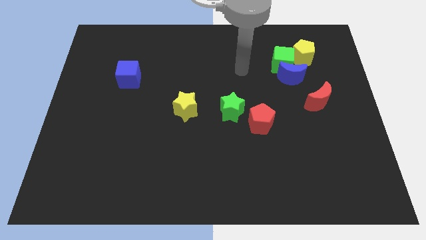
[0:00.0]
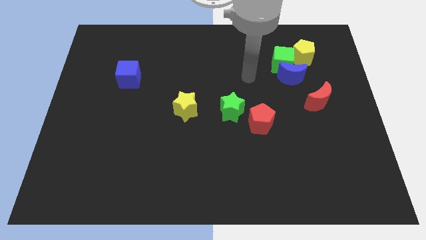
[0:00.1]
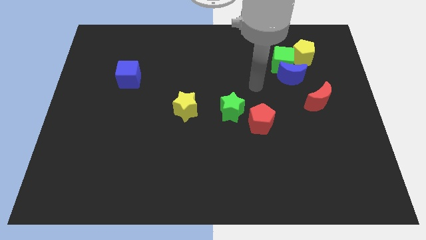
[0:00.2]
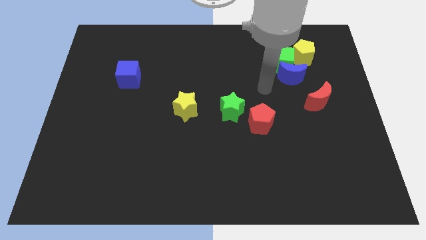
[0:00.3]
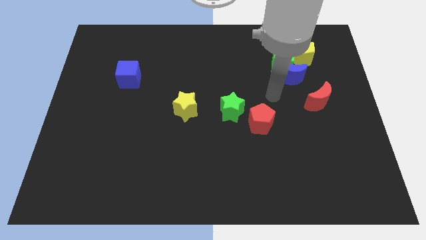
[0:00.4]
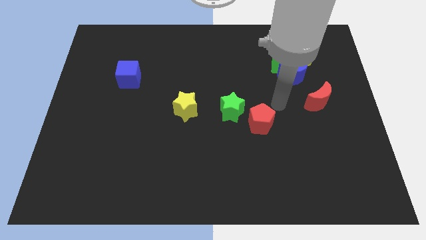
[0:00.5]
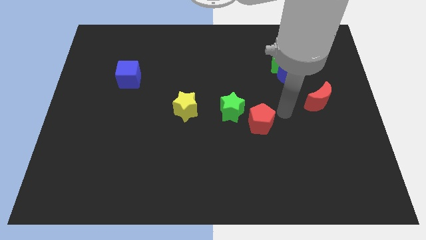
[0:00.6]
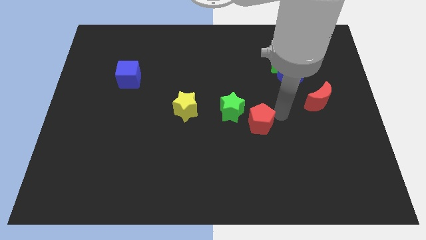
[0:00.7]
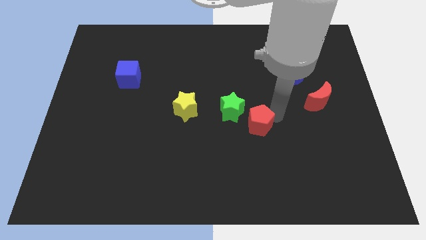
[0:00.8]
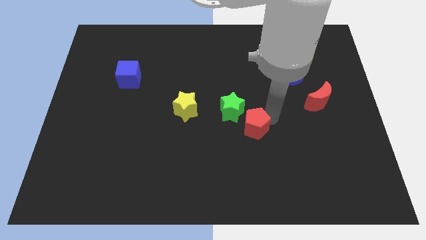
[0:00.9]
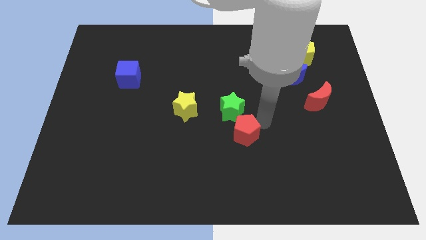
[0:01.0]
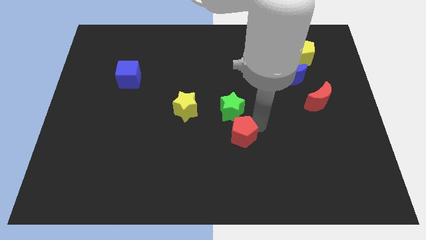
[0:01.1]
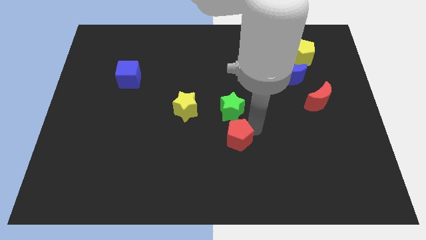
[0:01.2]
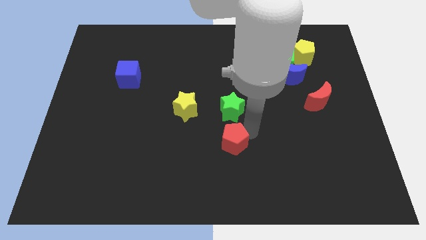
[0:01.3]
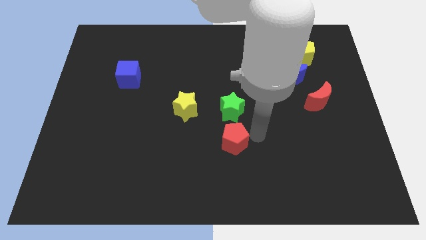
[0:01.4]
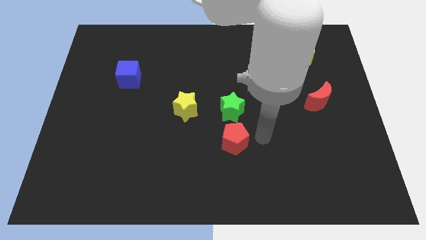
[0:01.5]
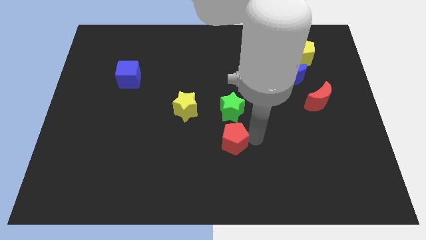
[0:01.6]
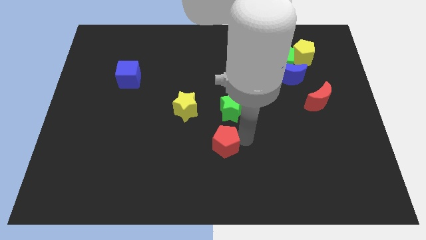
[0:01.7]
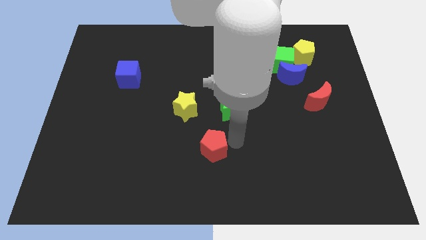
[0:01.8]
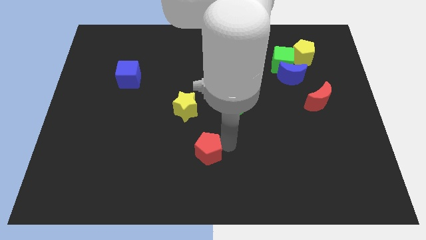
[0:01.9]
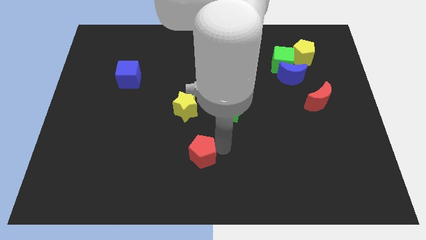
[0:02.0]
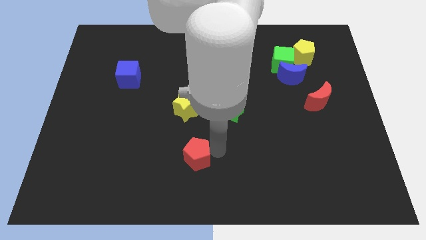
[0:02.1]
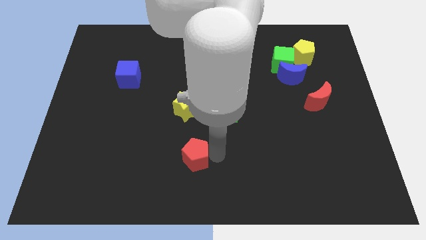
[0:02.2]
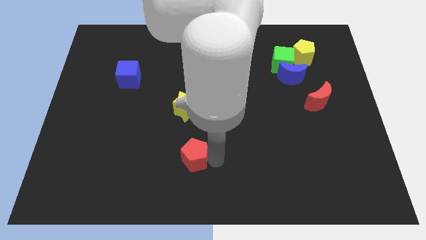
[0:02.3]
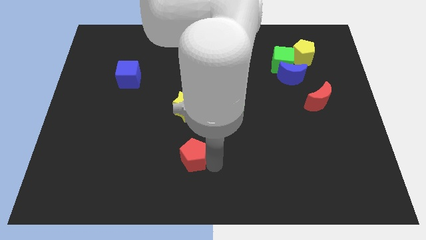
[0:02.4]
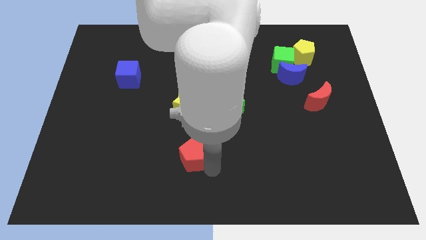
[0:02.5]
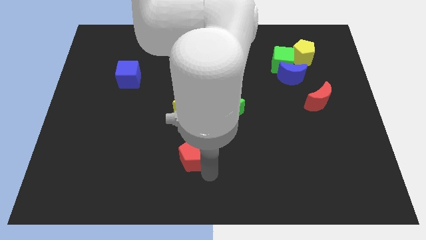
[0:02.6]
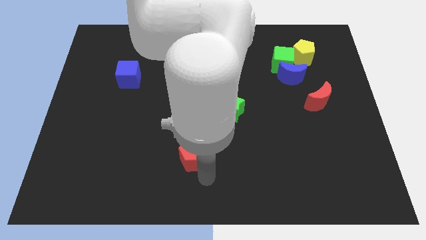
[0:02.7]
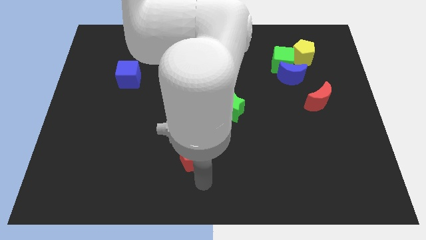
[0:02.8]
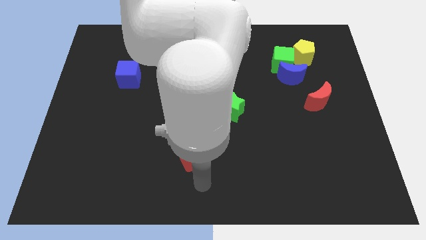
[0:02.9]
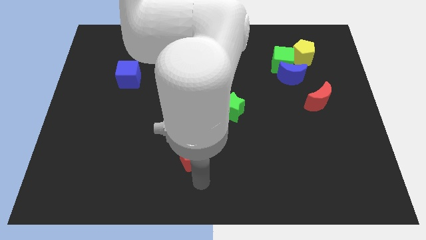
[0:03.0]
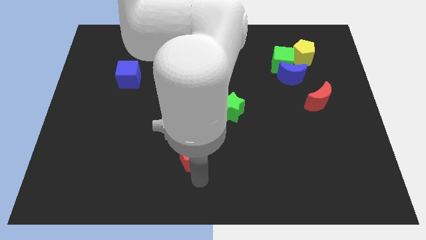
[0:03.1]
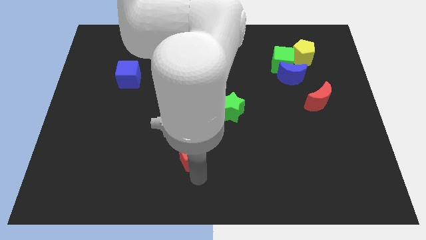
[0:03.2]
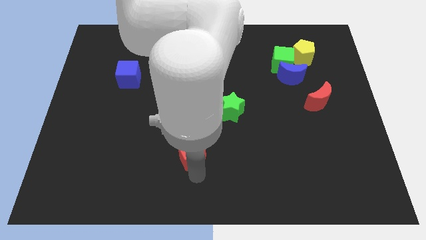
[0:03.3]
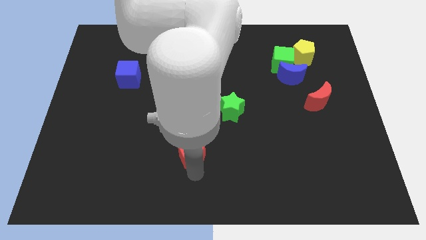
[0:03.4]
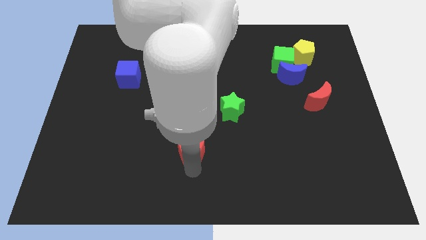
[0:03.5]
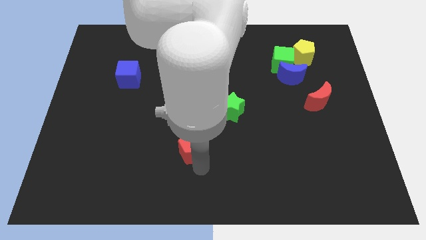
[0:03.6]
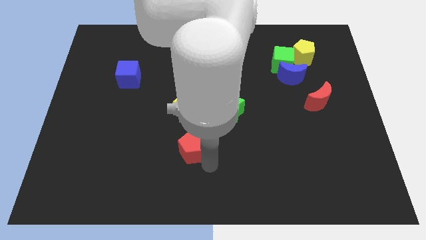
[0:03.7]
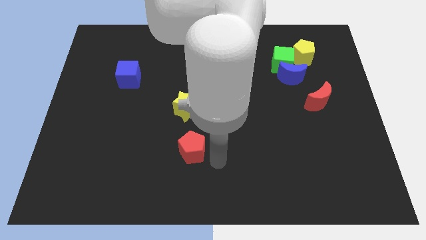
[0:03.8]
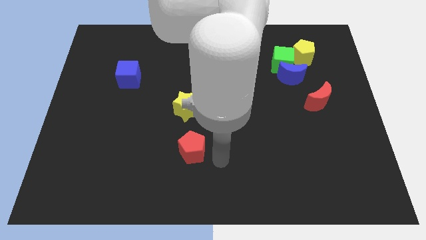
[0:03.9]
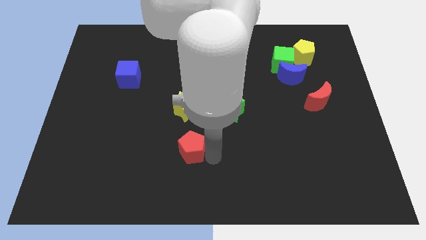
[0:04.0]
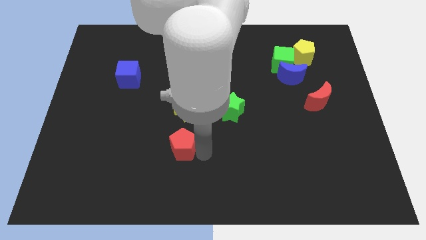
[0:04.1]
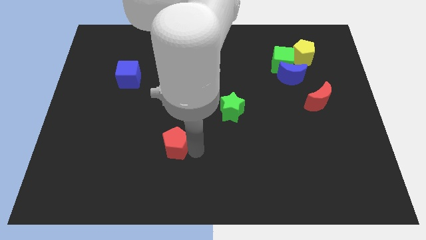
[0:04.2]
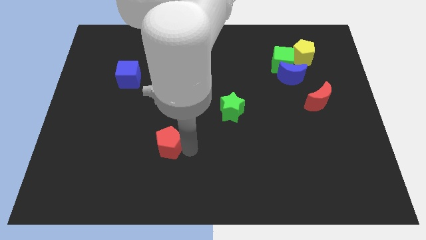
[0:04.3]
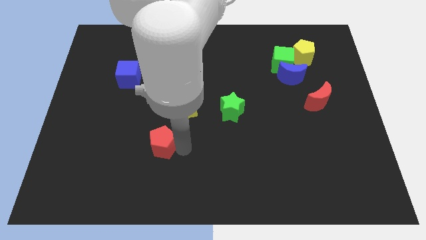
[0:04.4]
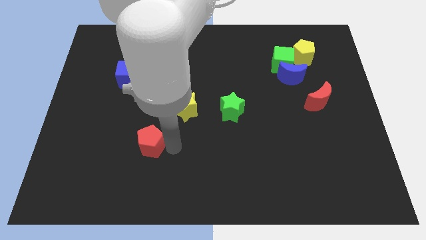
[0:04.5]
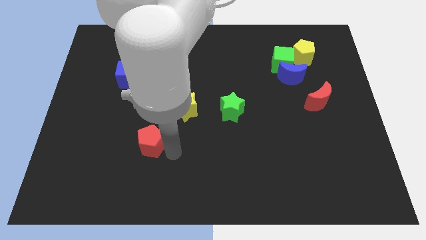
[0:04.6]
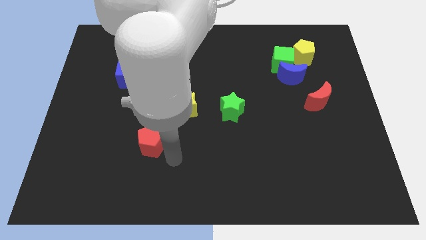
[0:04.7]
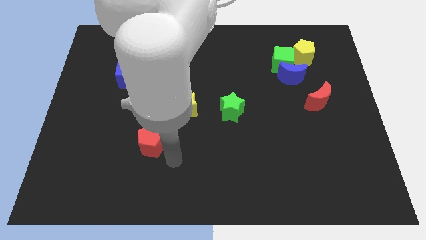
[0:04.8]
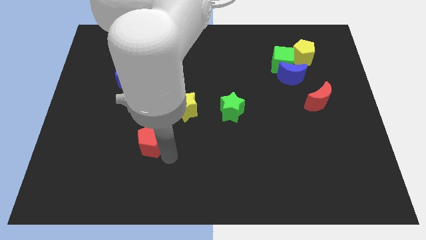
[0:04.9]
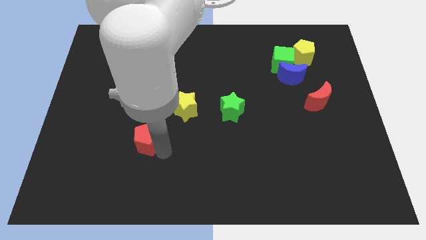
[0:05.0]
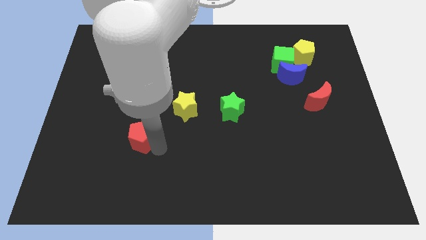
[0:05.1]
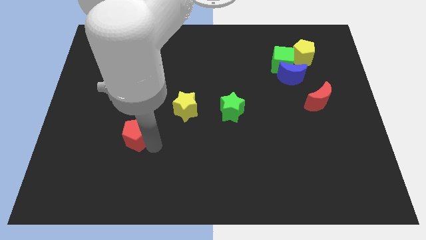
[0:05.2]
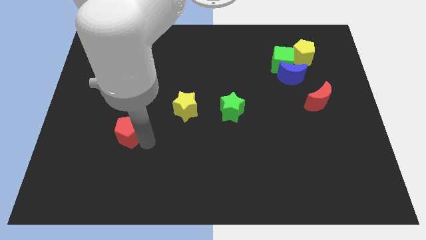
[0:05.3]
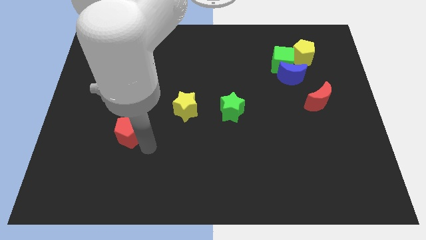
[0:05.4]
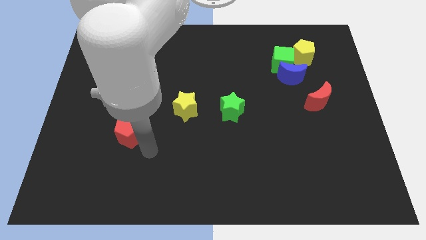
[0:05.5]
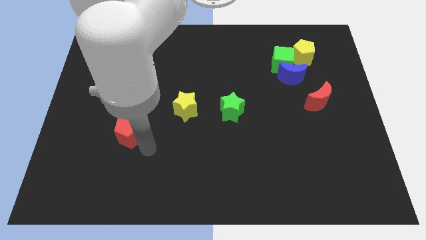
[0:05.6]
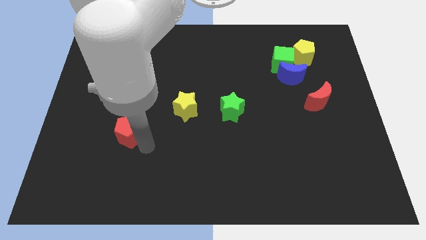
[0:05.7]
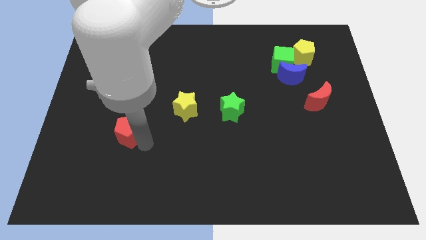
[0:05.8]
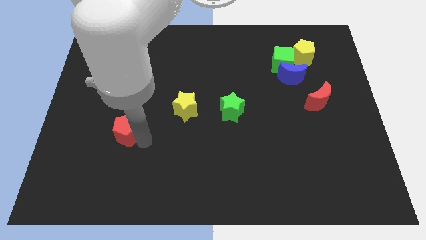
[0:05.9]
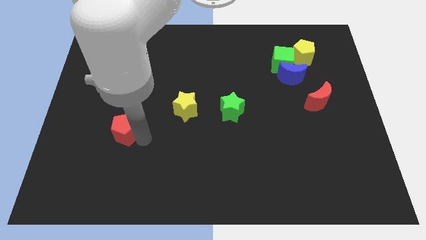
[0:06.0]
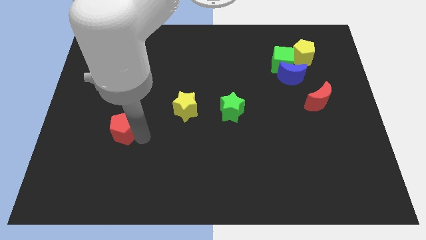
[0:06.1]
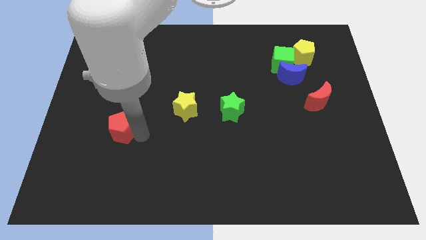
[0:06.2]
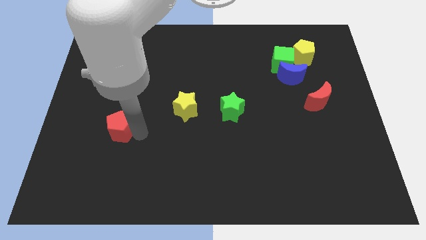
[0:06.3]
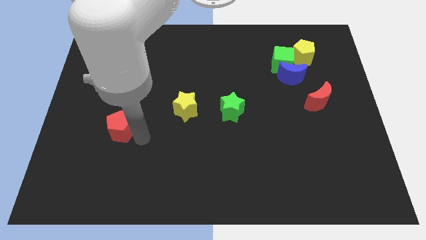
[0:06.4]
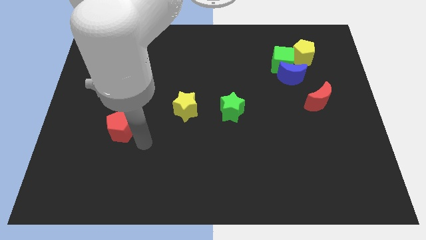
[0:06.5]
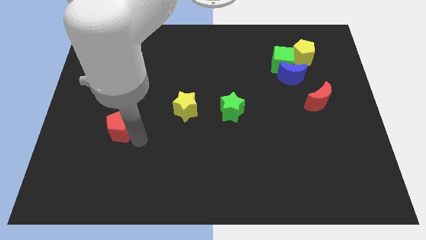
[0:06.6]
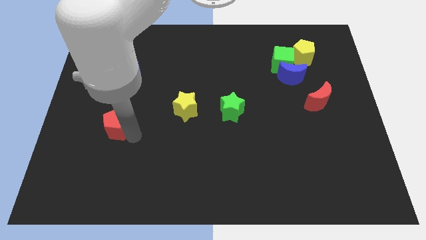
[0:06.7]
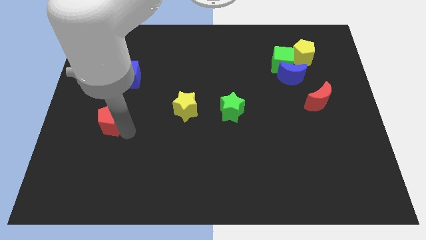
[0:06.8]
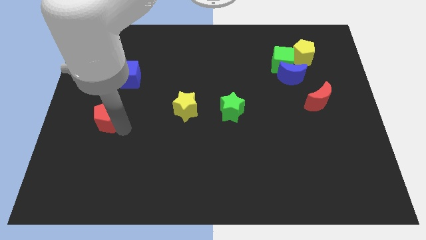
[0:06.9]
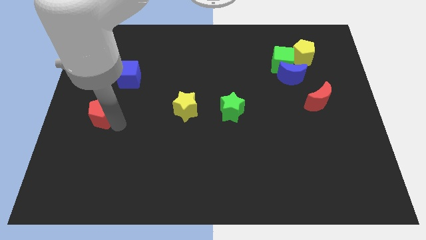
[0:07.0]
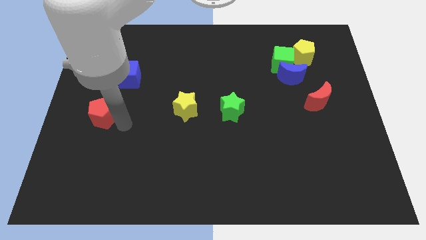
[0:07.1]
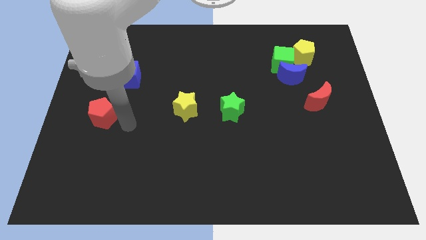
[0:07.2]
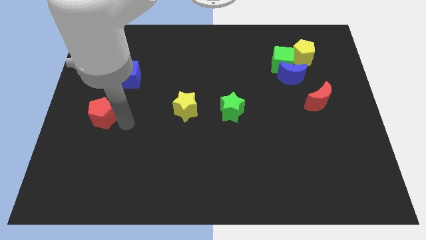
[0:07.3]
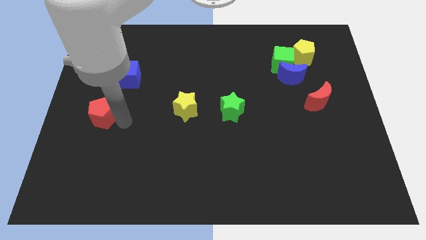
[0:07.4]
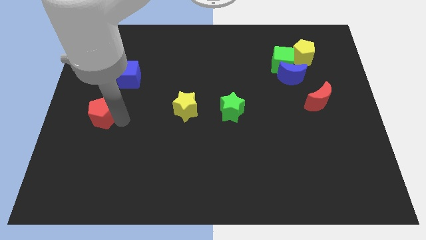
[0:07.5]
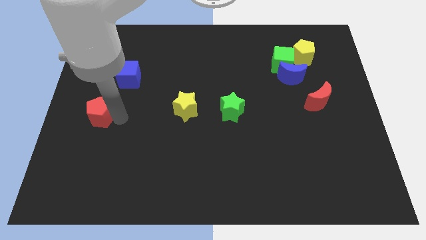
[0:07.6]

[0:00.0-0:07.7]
move the red pentagon to the center left
